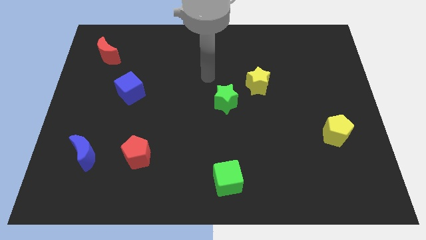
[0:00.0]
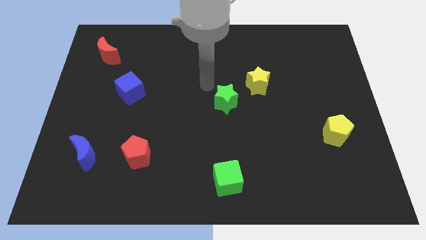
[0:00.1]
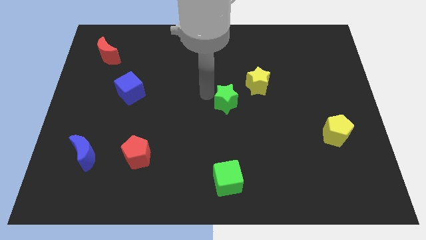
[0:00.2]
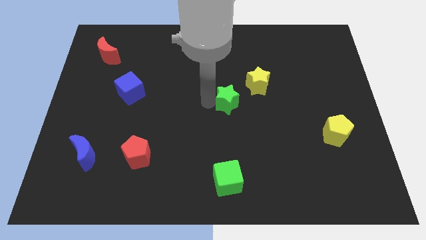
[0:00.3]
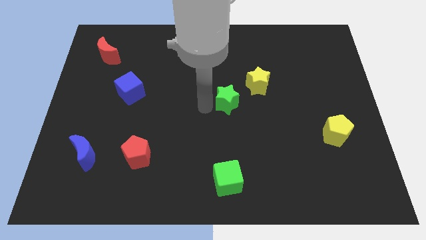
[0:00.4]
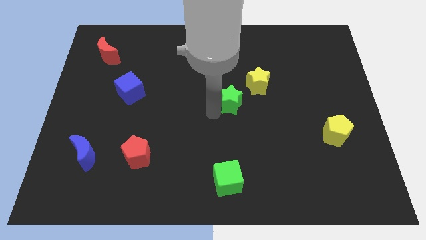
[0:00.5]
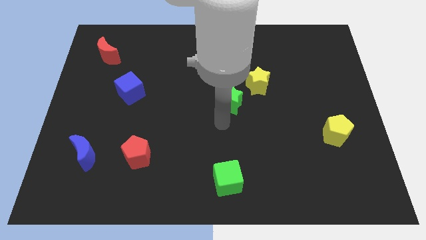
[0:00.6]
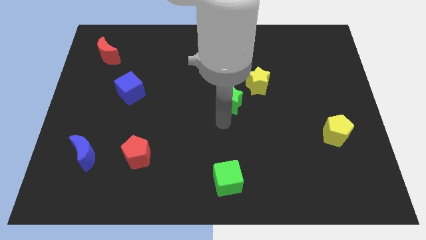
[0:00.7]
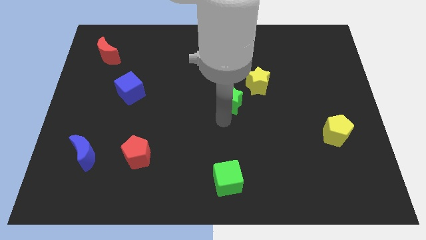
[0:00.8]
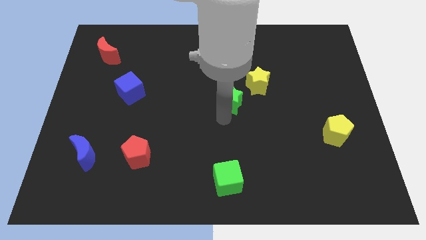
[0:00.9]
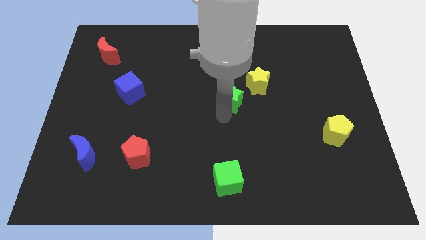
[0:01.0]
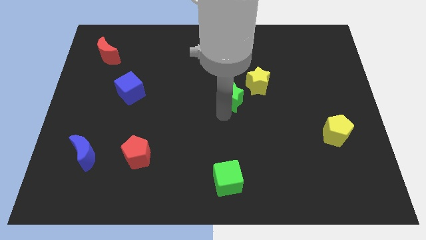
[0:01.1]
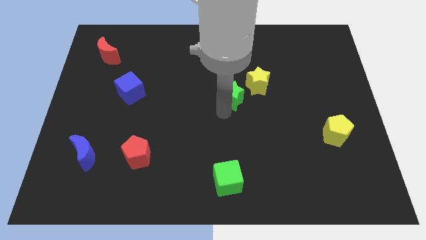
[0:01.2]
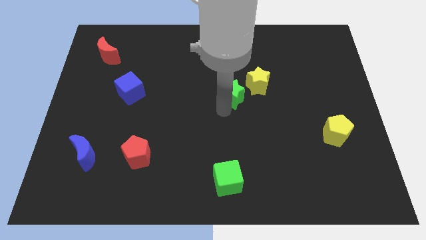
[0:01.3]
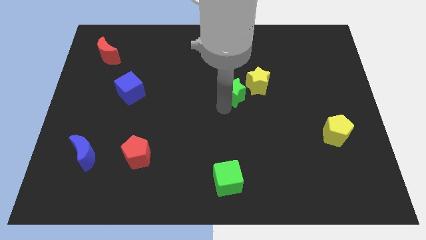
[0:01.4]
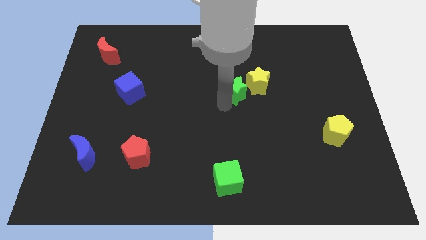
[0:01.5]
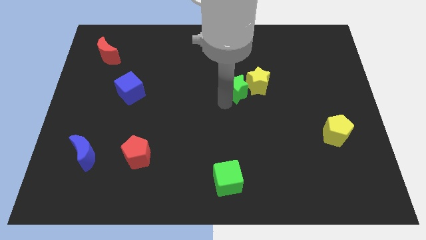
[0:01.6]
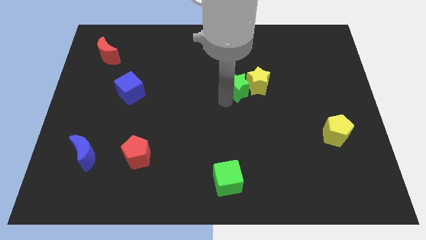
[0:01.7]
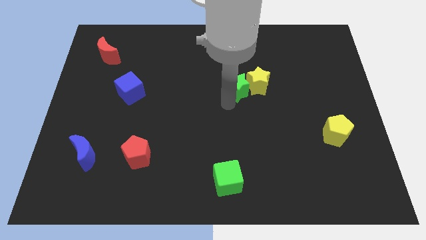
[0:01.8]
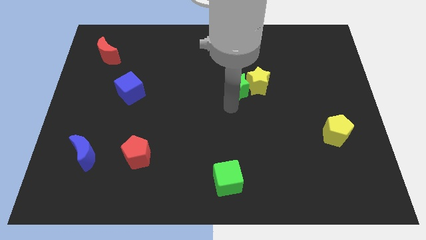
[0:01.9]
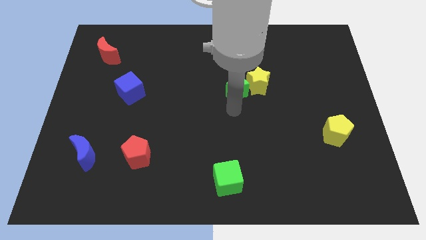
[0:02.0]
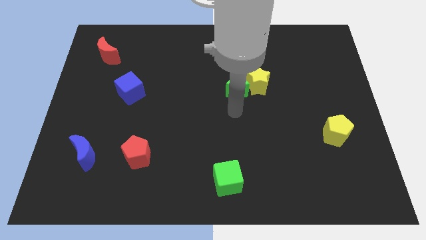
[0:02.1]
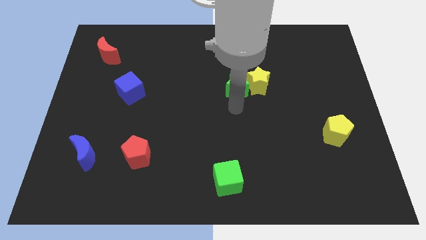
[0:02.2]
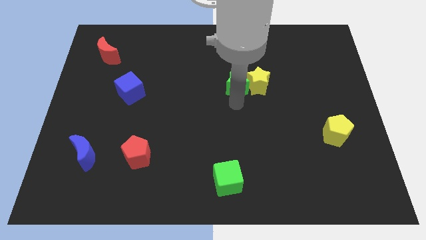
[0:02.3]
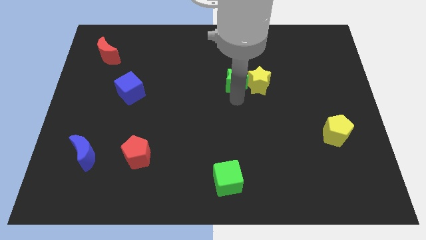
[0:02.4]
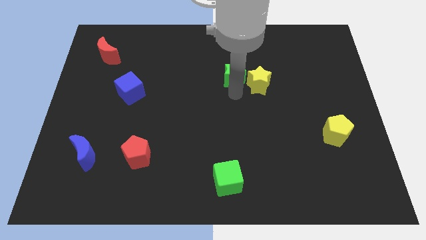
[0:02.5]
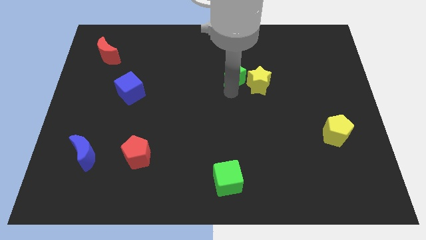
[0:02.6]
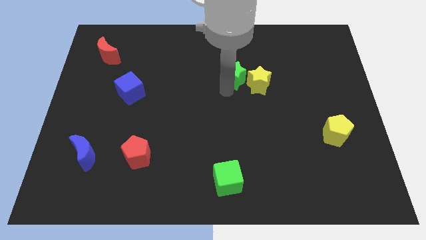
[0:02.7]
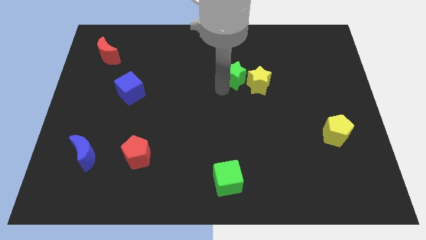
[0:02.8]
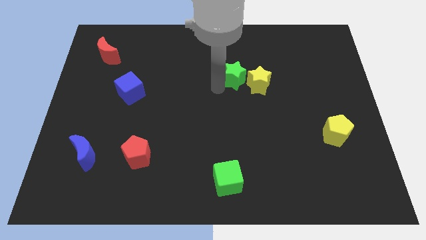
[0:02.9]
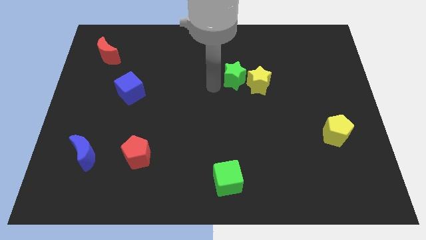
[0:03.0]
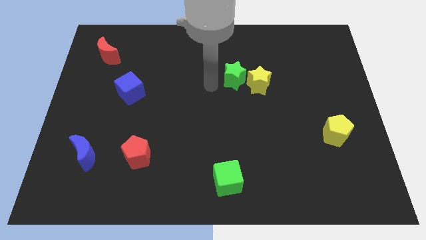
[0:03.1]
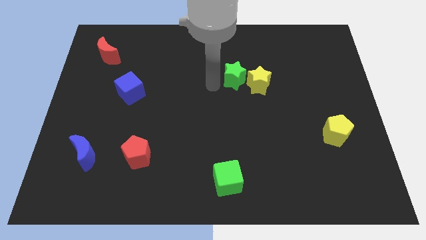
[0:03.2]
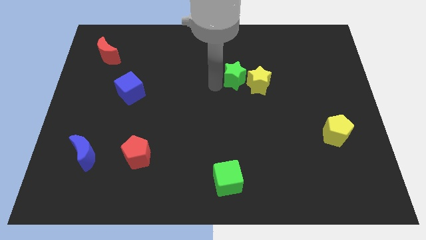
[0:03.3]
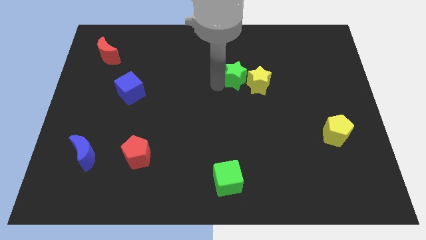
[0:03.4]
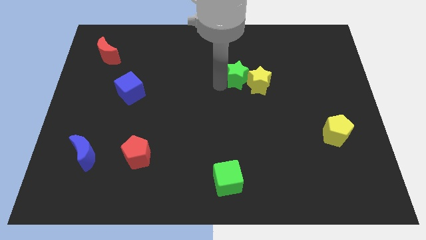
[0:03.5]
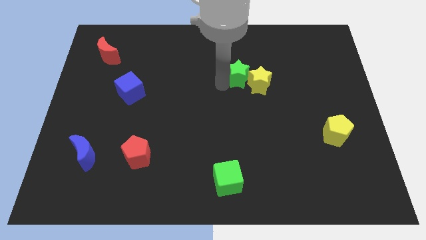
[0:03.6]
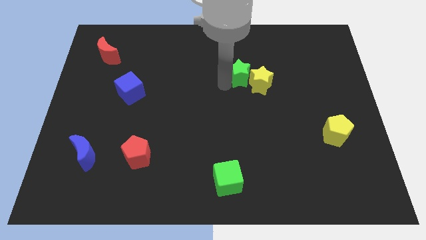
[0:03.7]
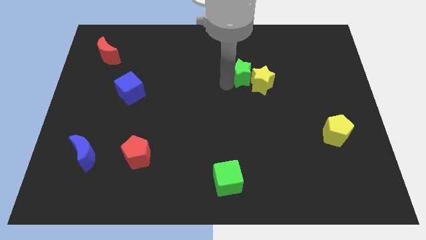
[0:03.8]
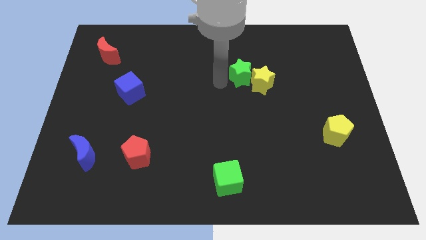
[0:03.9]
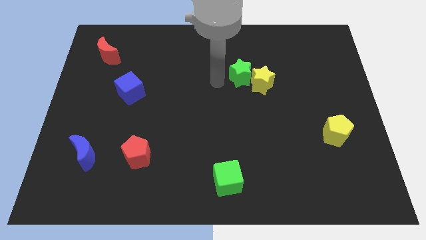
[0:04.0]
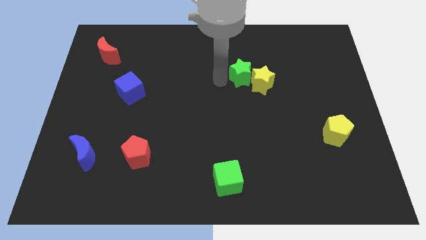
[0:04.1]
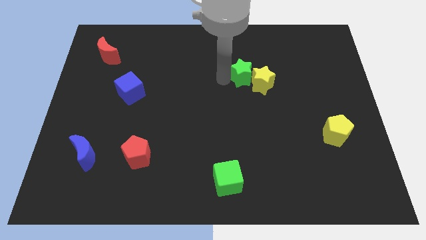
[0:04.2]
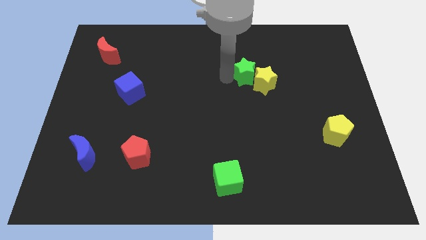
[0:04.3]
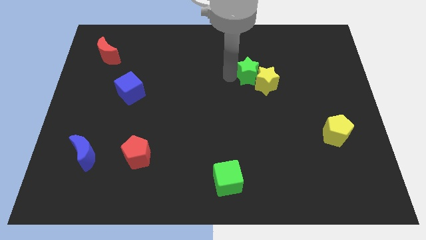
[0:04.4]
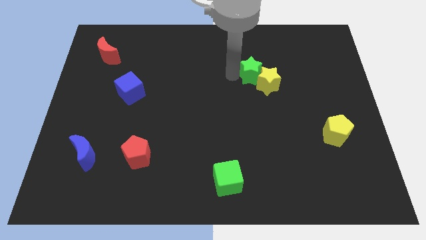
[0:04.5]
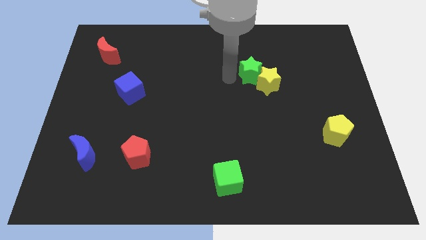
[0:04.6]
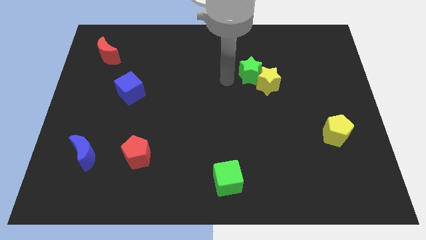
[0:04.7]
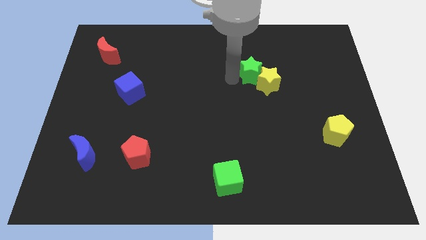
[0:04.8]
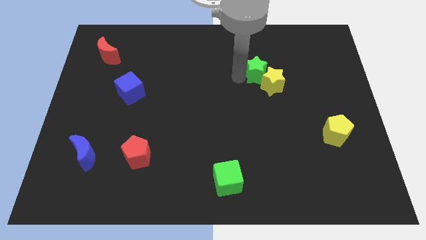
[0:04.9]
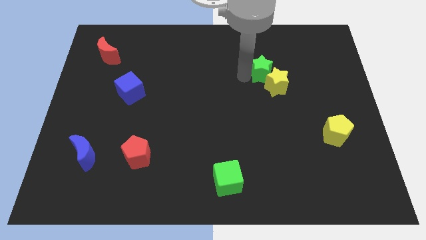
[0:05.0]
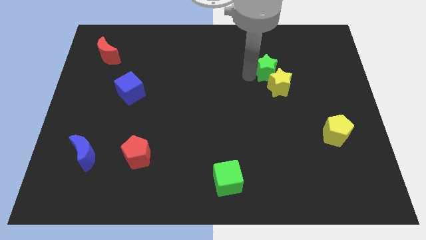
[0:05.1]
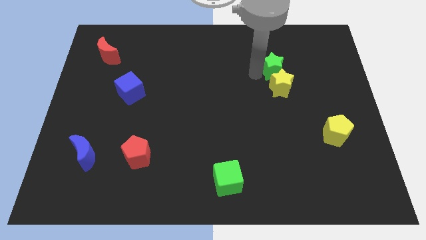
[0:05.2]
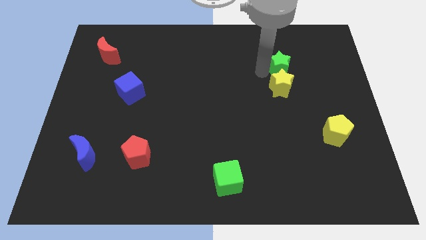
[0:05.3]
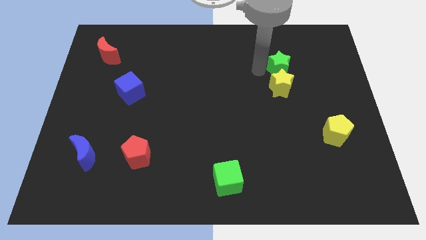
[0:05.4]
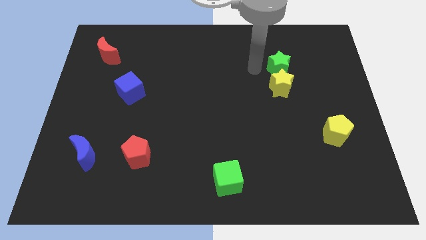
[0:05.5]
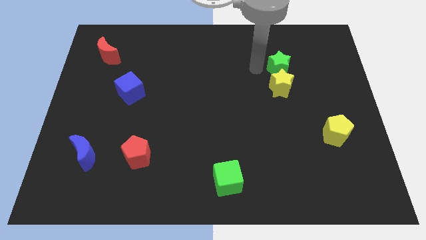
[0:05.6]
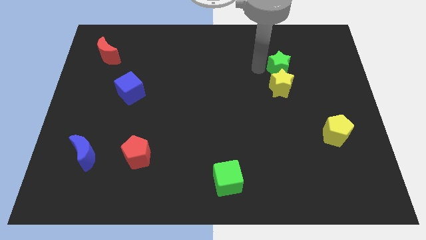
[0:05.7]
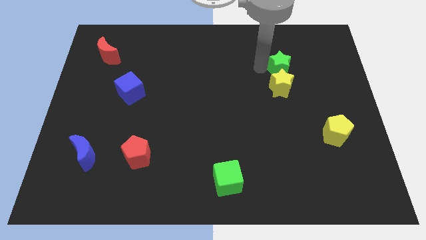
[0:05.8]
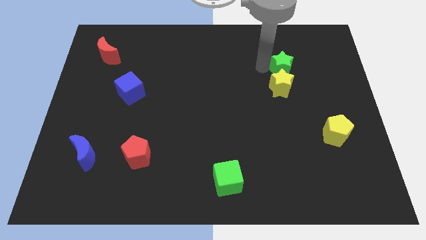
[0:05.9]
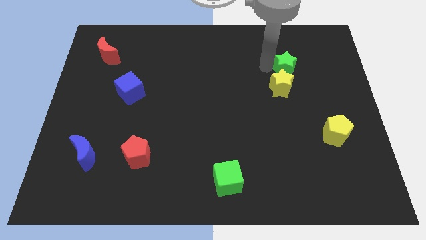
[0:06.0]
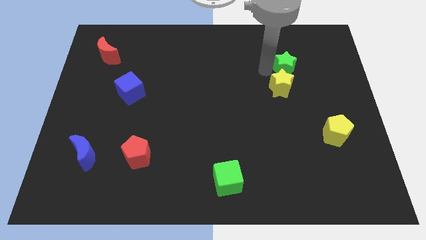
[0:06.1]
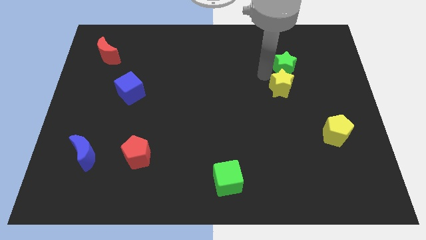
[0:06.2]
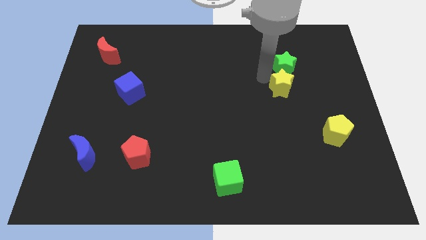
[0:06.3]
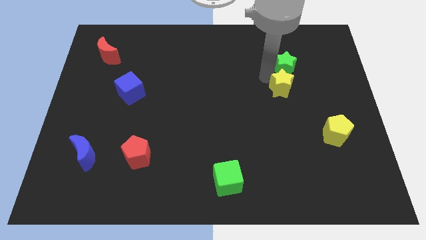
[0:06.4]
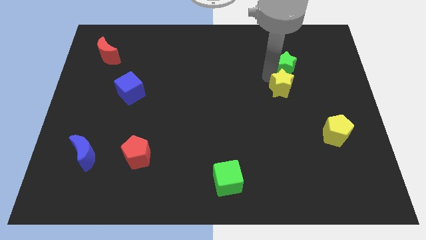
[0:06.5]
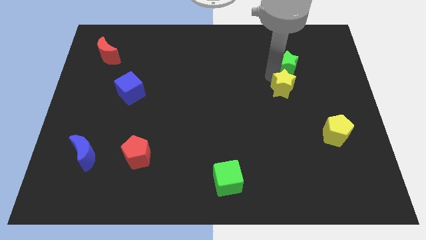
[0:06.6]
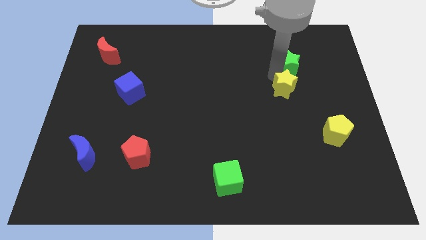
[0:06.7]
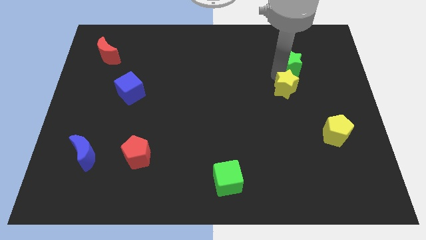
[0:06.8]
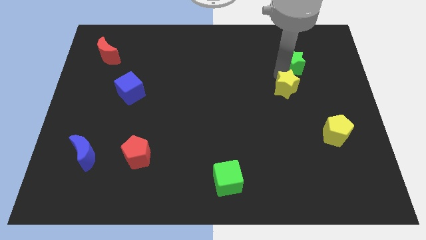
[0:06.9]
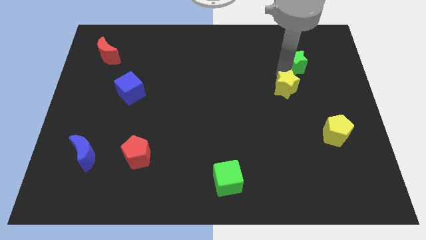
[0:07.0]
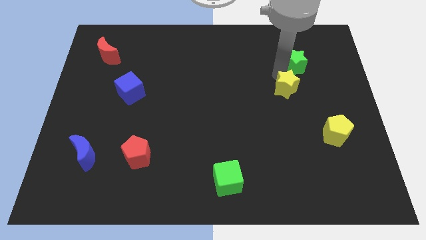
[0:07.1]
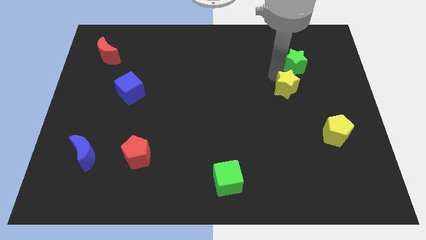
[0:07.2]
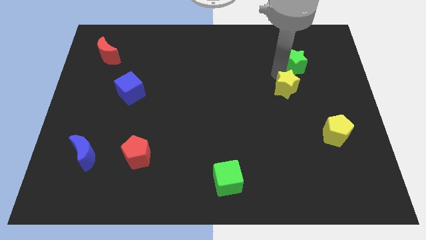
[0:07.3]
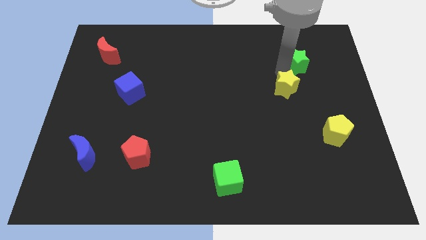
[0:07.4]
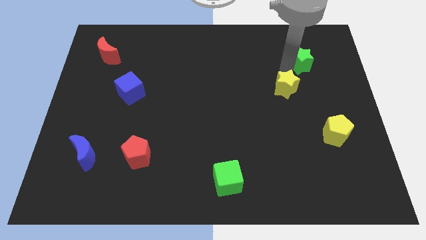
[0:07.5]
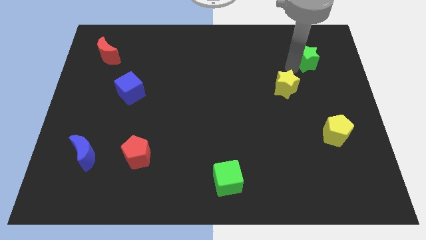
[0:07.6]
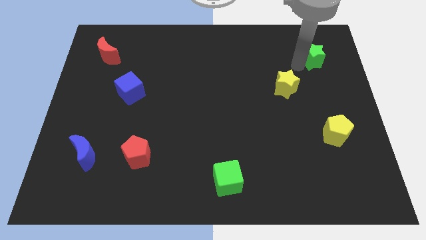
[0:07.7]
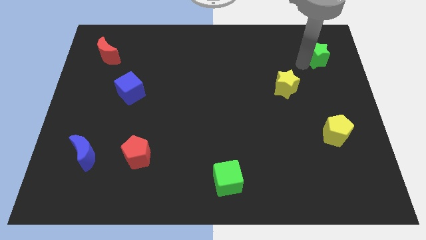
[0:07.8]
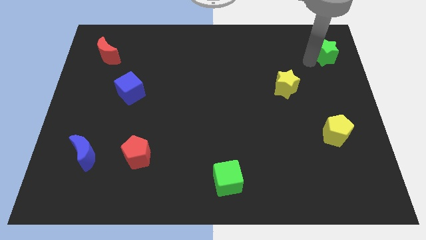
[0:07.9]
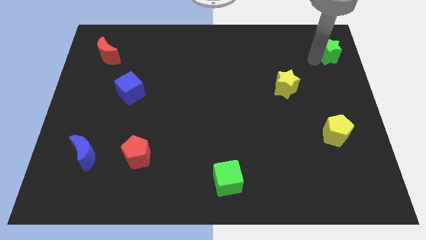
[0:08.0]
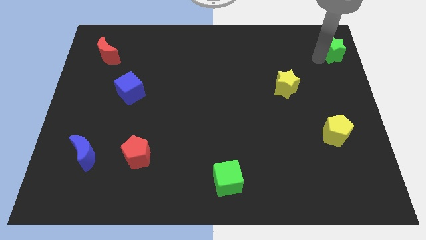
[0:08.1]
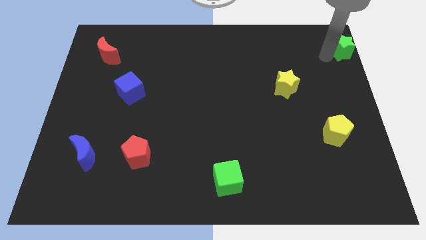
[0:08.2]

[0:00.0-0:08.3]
slide the green star to the upper right corner
